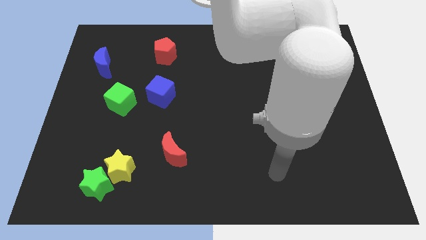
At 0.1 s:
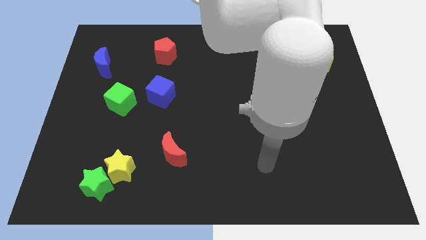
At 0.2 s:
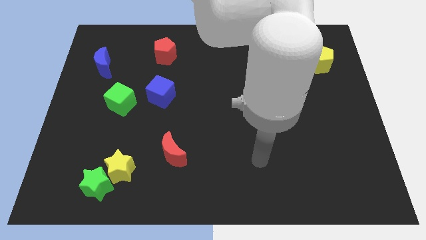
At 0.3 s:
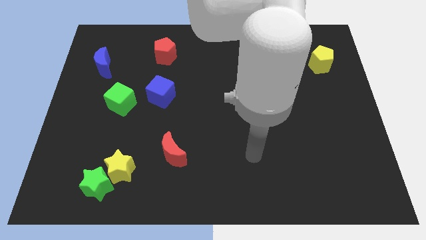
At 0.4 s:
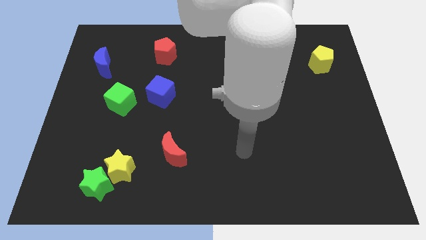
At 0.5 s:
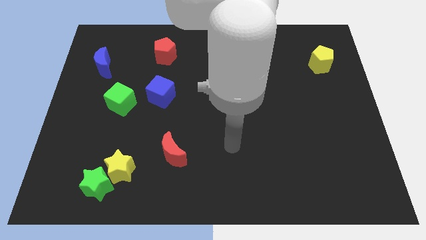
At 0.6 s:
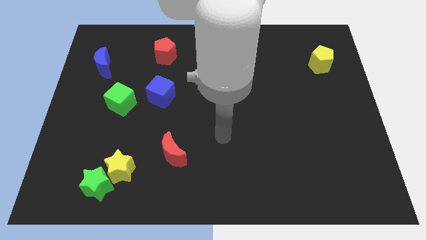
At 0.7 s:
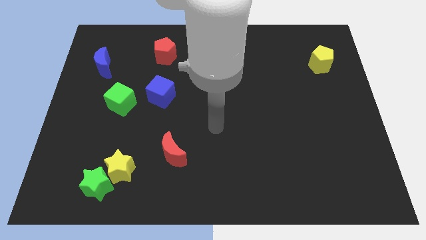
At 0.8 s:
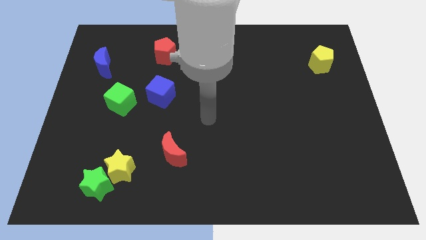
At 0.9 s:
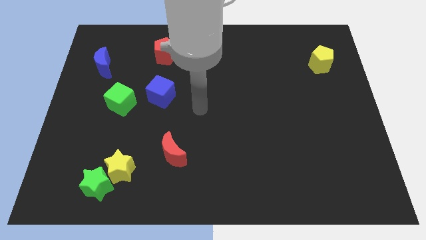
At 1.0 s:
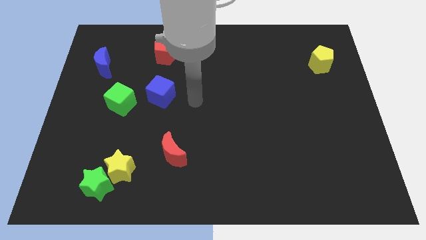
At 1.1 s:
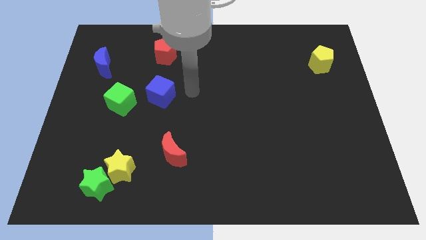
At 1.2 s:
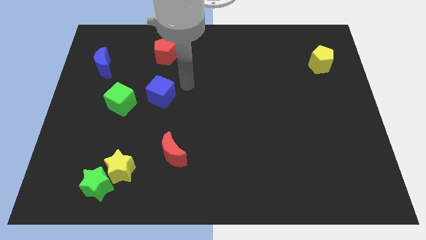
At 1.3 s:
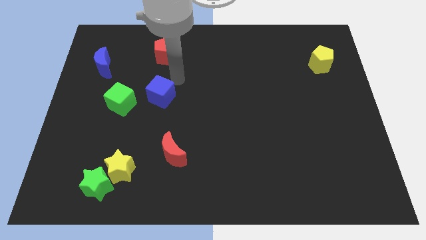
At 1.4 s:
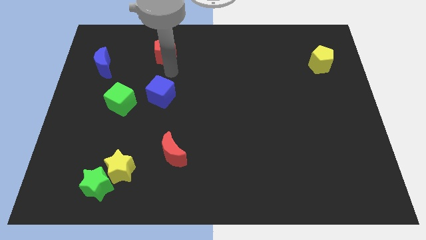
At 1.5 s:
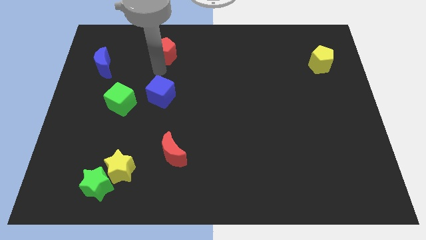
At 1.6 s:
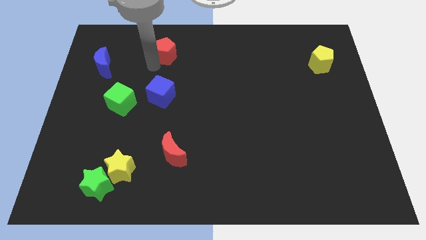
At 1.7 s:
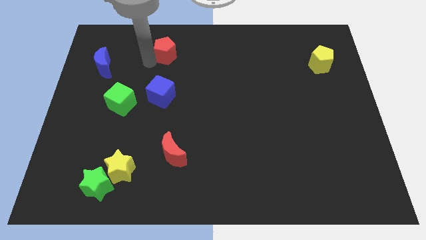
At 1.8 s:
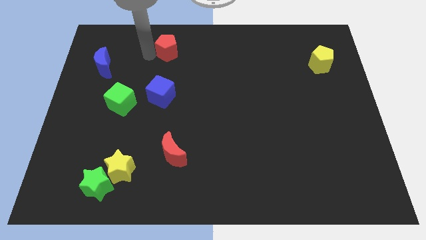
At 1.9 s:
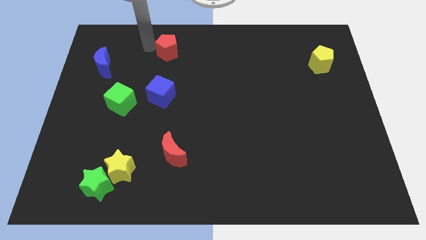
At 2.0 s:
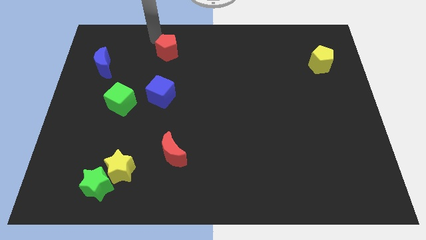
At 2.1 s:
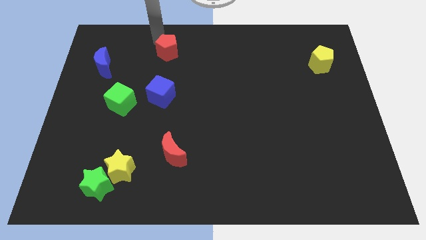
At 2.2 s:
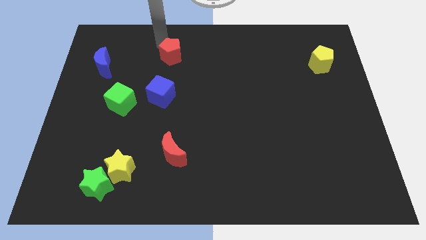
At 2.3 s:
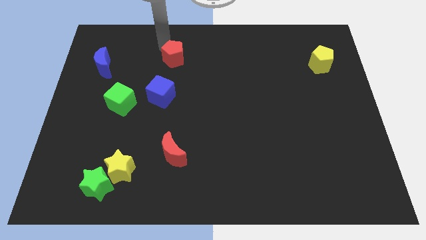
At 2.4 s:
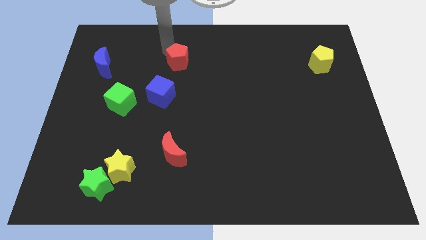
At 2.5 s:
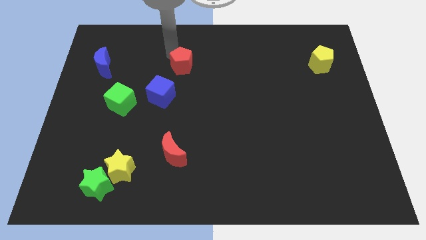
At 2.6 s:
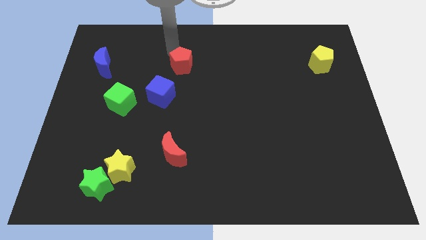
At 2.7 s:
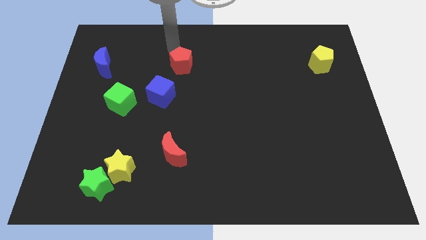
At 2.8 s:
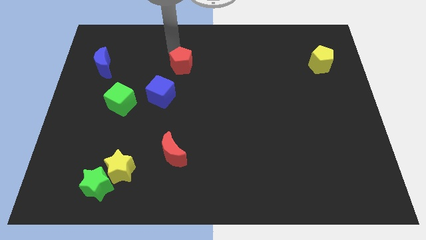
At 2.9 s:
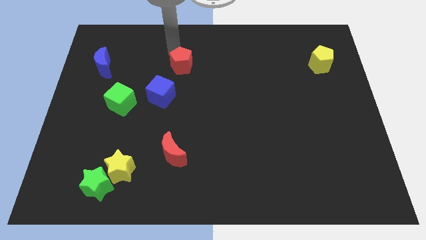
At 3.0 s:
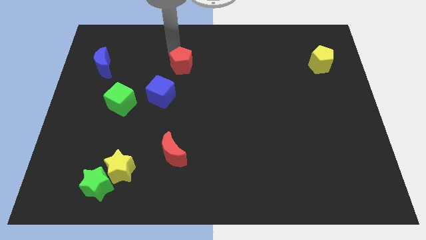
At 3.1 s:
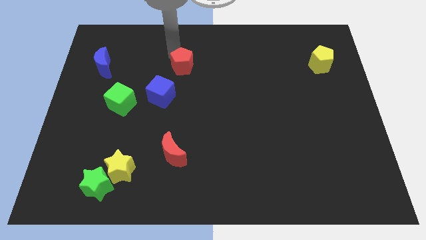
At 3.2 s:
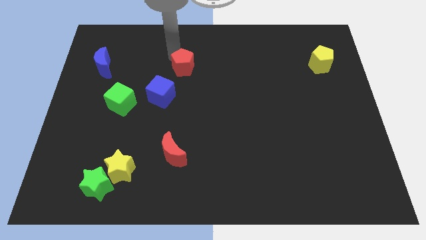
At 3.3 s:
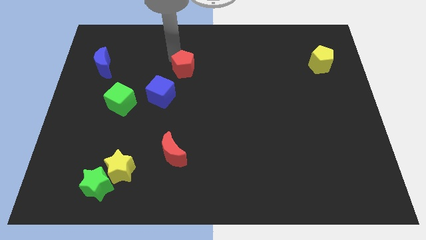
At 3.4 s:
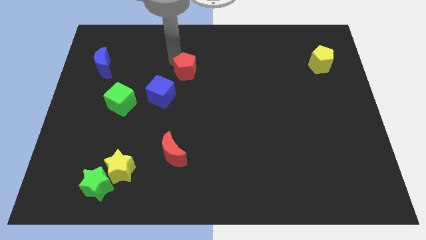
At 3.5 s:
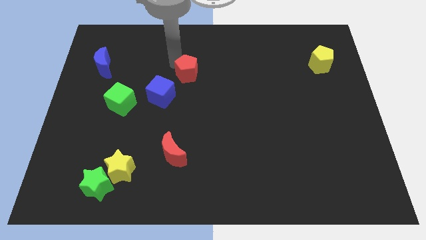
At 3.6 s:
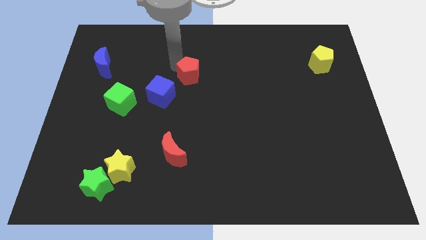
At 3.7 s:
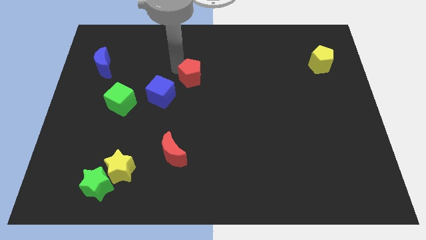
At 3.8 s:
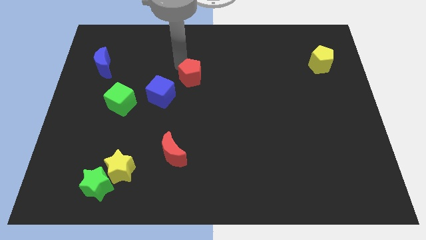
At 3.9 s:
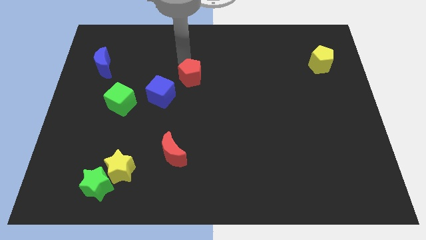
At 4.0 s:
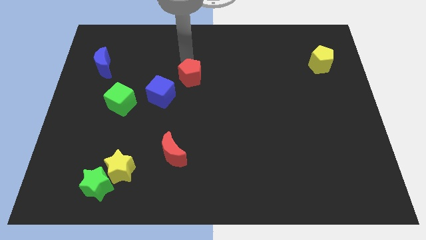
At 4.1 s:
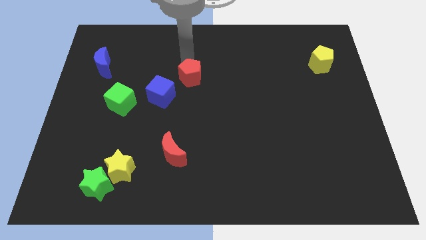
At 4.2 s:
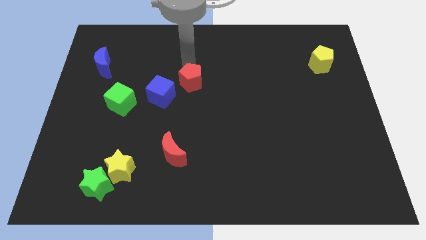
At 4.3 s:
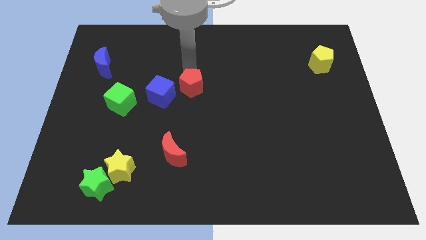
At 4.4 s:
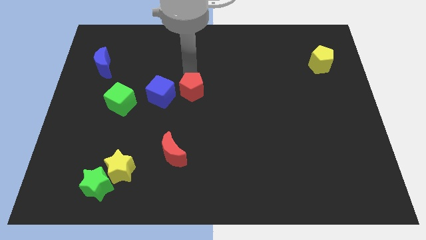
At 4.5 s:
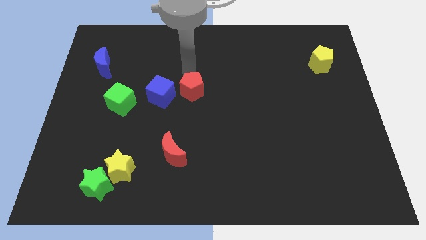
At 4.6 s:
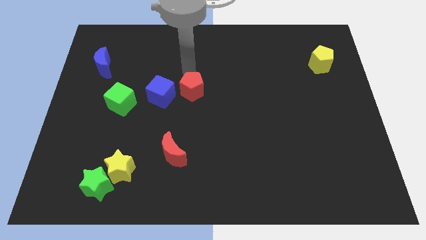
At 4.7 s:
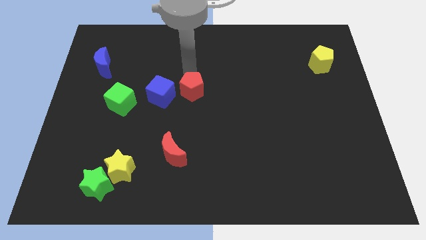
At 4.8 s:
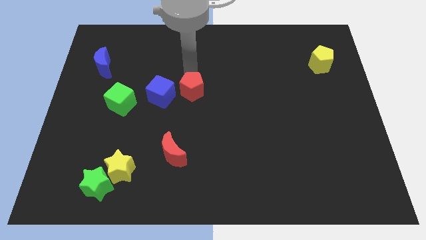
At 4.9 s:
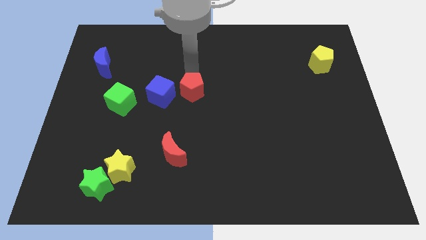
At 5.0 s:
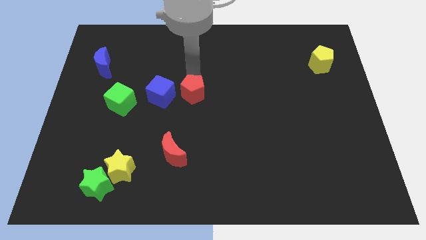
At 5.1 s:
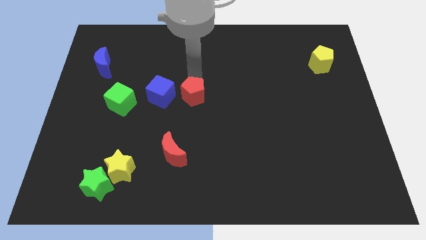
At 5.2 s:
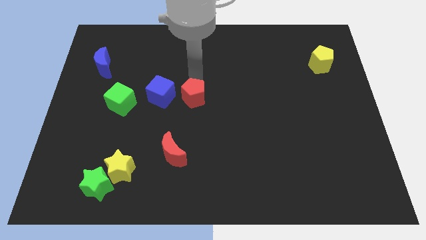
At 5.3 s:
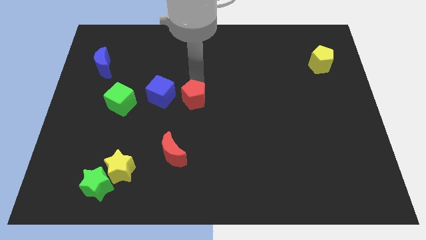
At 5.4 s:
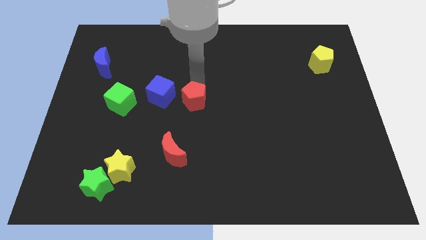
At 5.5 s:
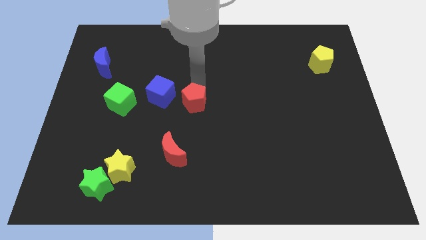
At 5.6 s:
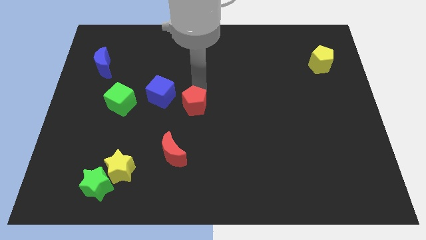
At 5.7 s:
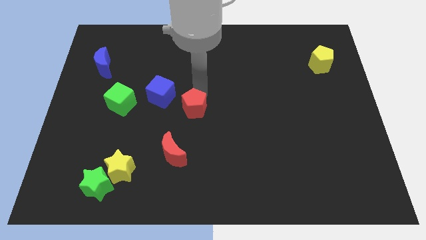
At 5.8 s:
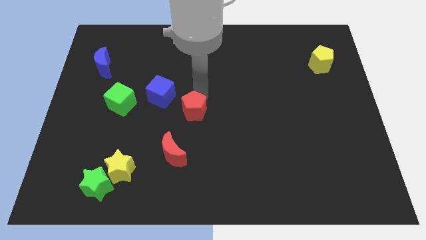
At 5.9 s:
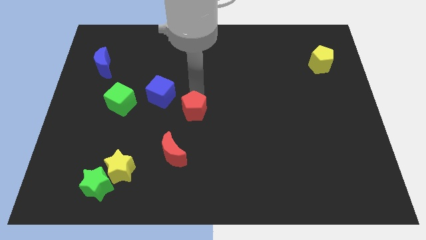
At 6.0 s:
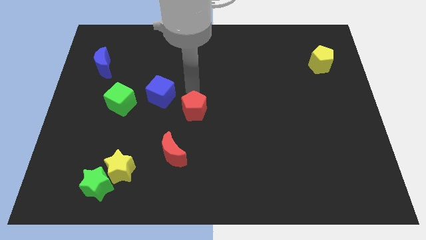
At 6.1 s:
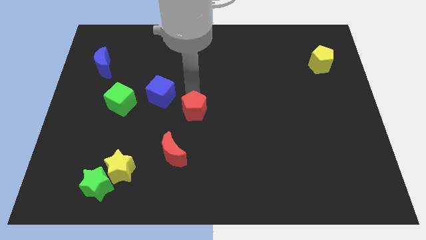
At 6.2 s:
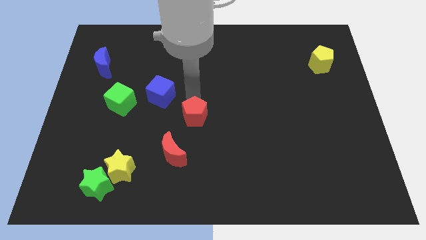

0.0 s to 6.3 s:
slide the red pentagon diagonally up and to the right of the red moon

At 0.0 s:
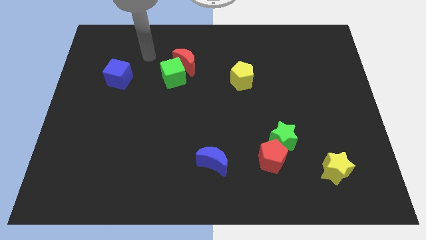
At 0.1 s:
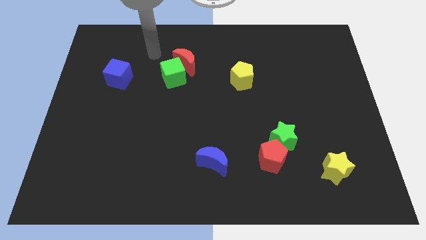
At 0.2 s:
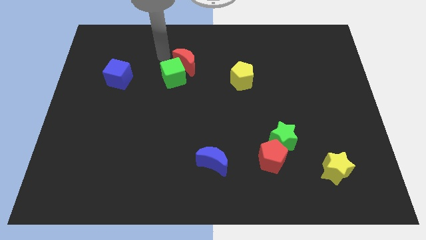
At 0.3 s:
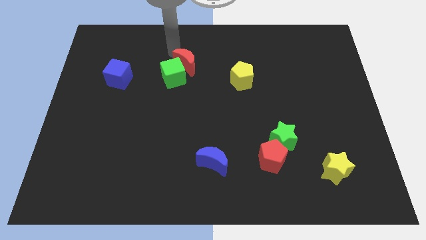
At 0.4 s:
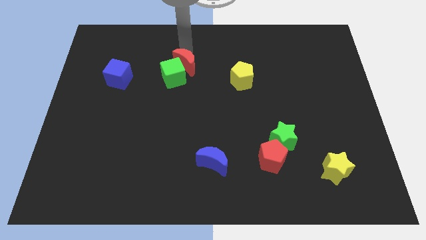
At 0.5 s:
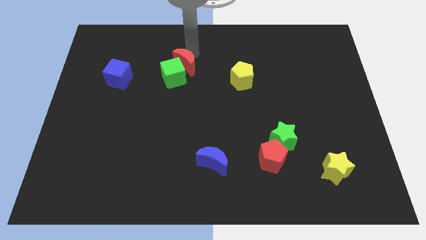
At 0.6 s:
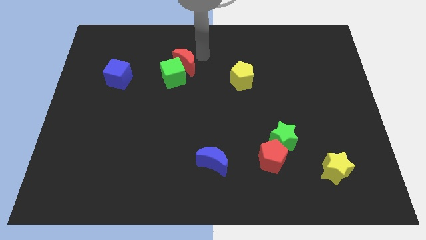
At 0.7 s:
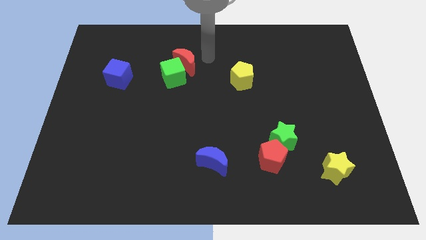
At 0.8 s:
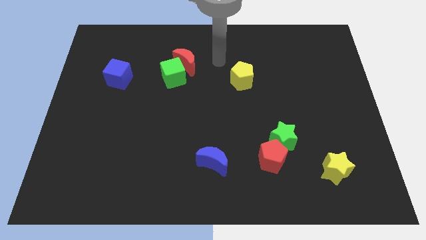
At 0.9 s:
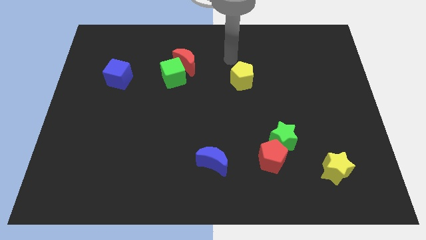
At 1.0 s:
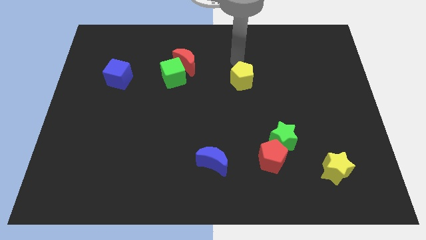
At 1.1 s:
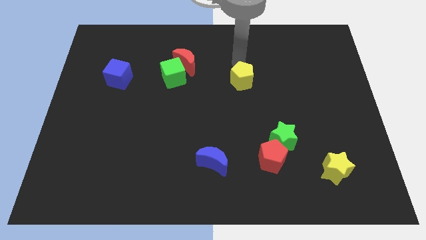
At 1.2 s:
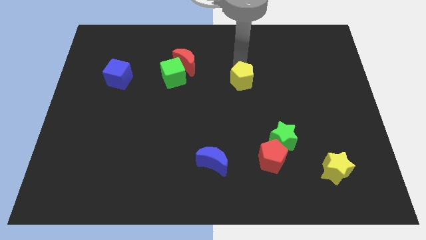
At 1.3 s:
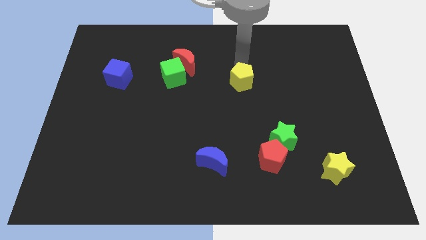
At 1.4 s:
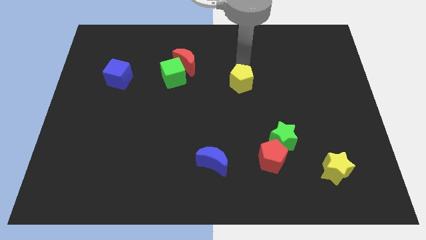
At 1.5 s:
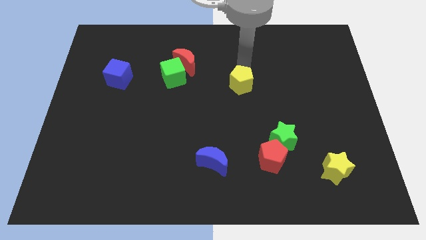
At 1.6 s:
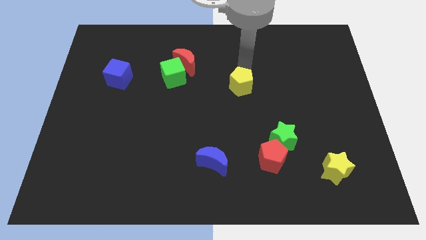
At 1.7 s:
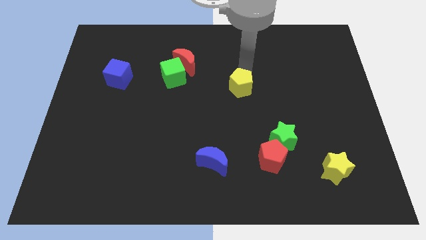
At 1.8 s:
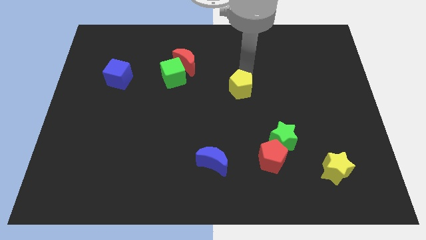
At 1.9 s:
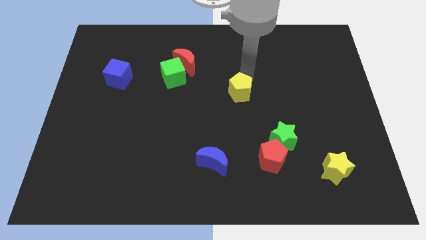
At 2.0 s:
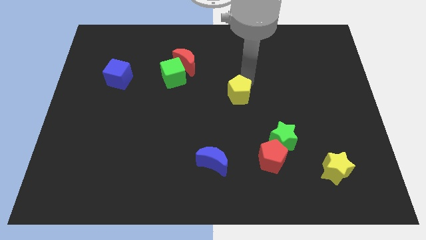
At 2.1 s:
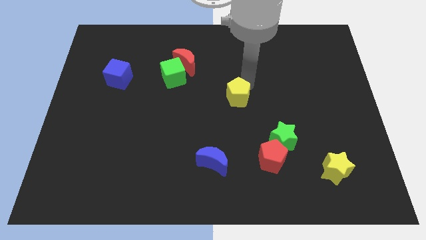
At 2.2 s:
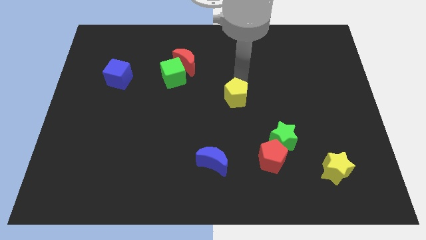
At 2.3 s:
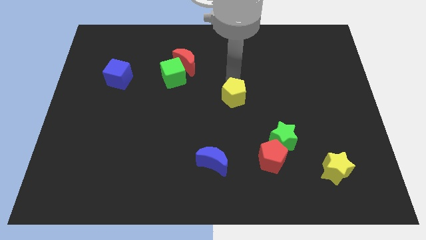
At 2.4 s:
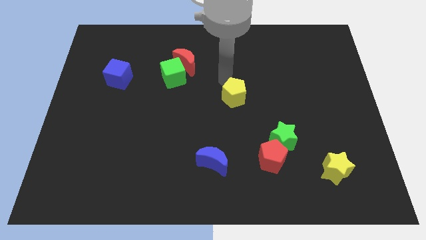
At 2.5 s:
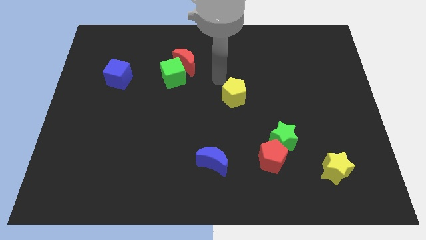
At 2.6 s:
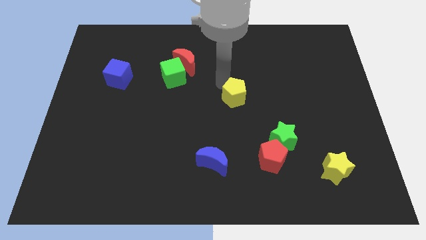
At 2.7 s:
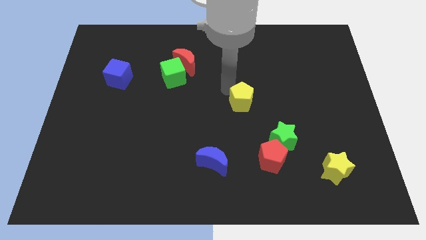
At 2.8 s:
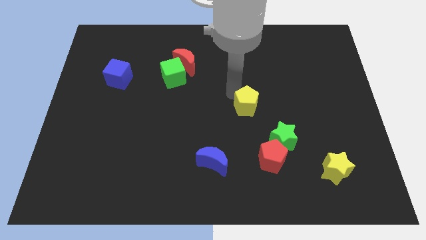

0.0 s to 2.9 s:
slide the yellow pentagon diagonally up and to the left of the green star
